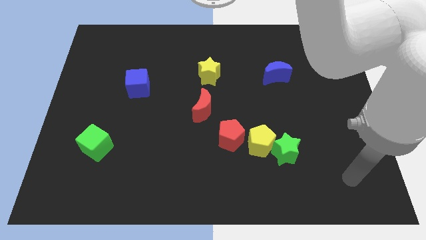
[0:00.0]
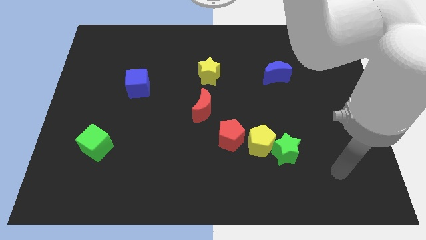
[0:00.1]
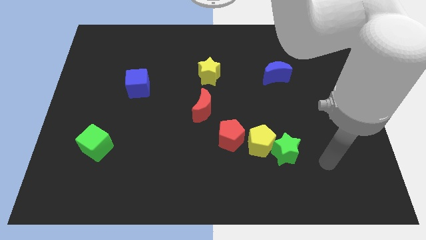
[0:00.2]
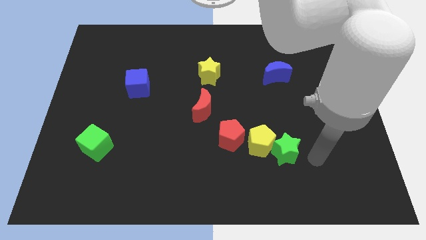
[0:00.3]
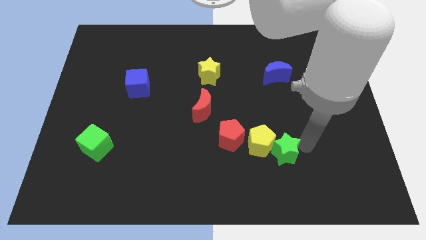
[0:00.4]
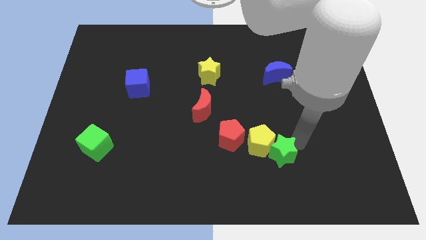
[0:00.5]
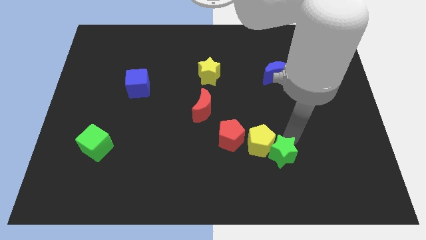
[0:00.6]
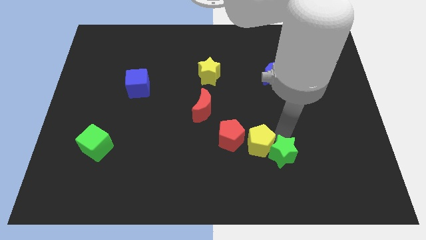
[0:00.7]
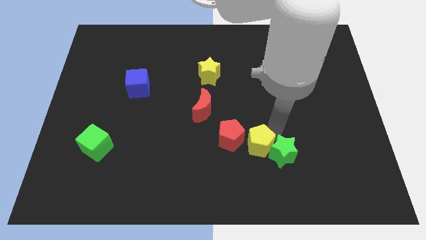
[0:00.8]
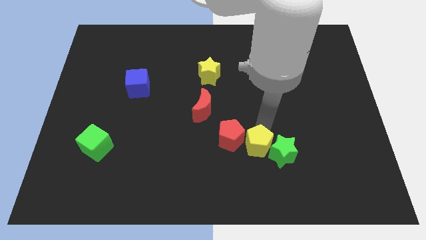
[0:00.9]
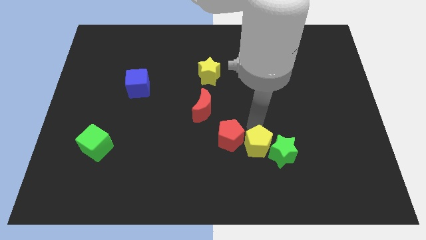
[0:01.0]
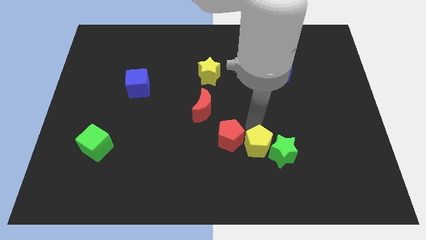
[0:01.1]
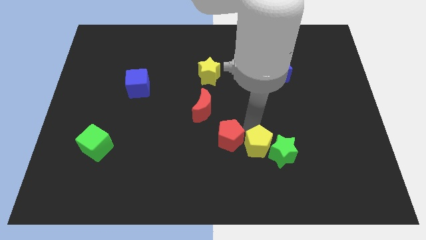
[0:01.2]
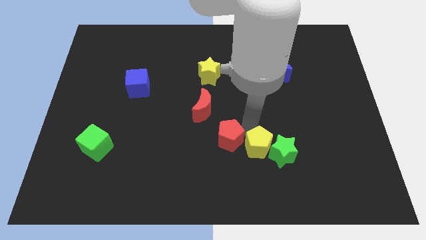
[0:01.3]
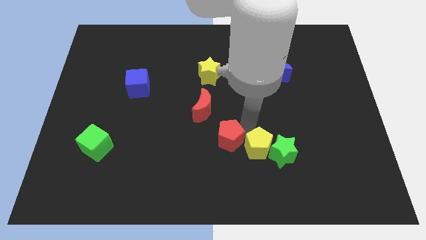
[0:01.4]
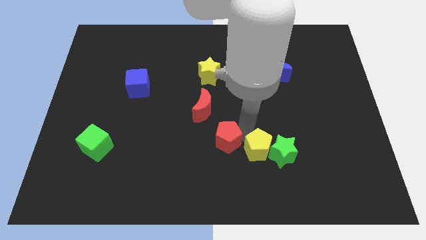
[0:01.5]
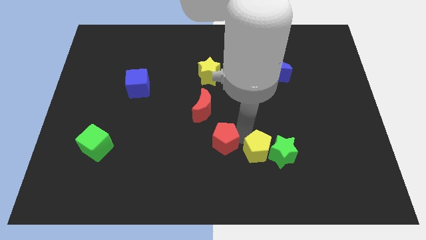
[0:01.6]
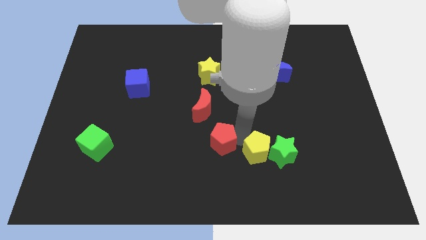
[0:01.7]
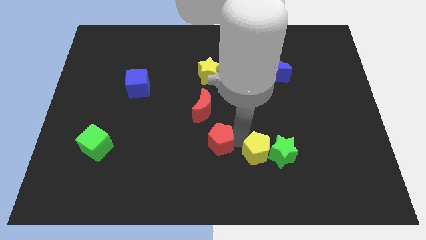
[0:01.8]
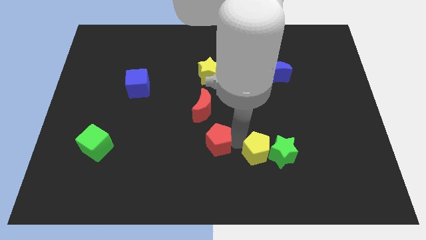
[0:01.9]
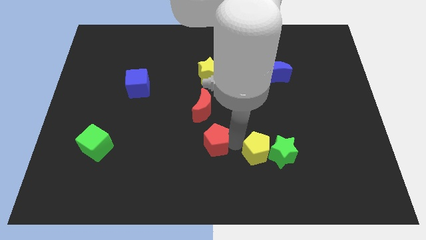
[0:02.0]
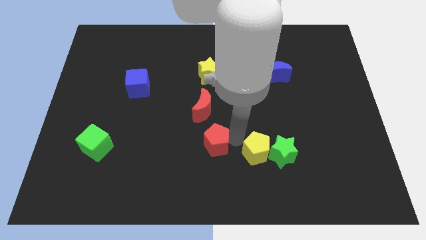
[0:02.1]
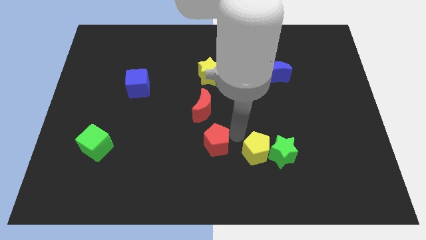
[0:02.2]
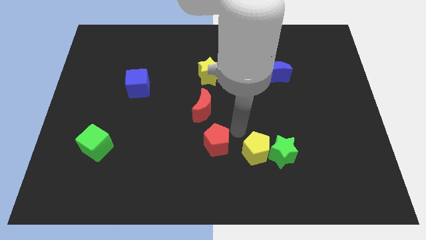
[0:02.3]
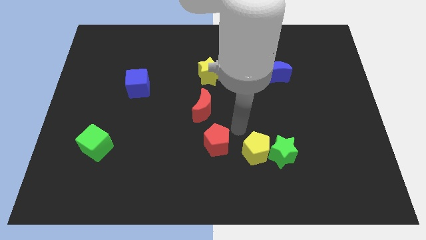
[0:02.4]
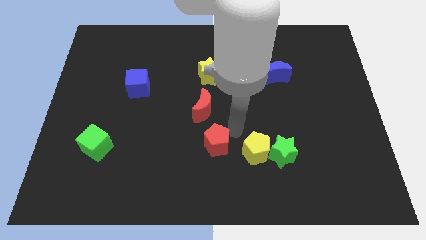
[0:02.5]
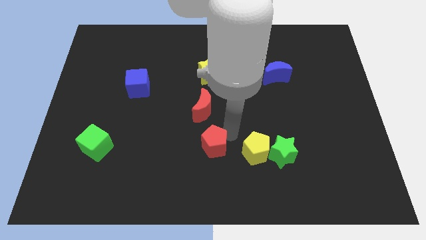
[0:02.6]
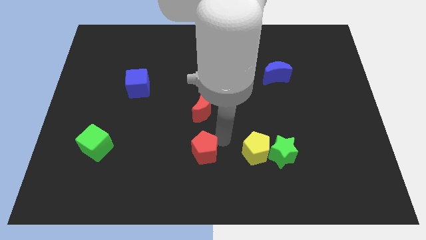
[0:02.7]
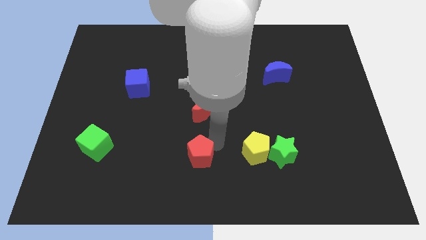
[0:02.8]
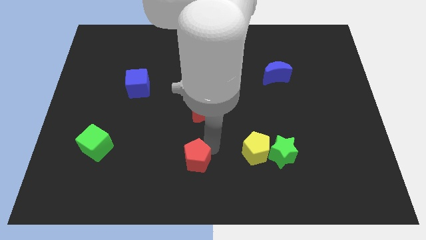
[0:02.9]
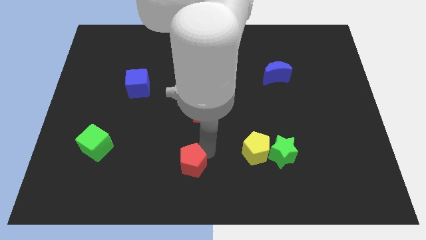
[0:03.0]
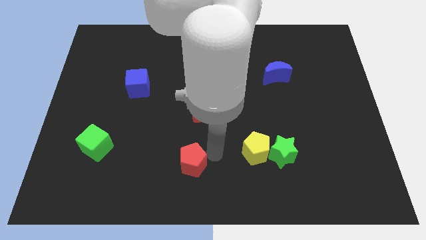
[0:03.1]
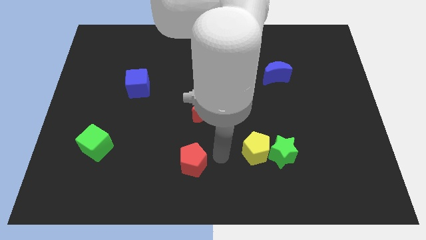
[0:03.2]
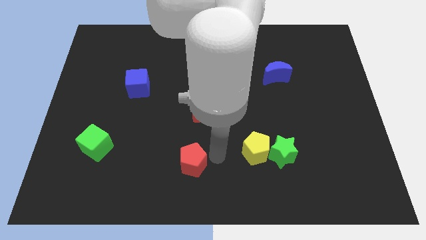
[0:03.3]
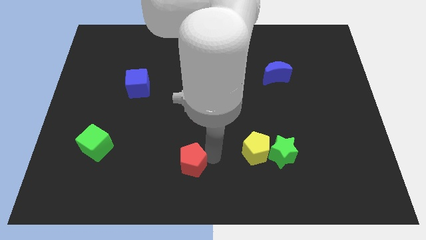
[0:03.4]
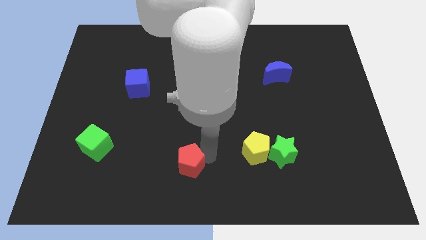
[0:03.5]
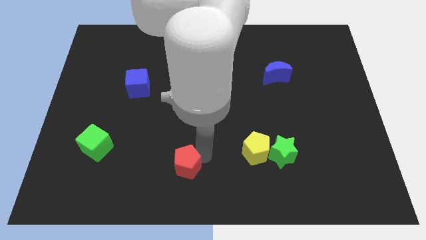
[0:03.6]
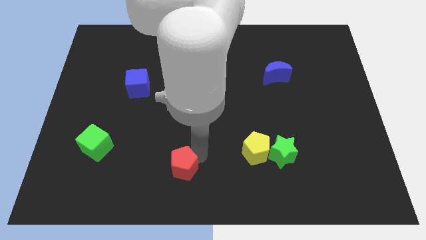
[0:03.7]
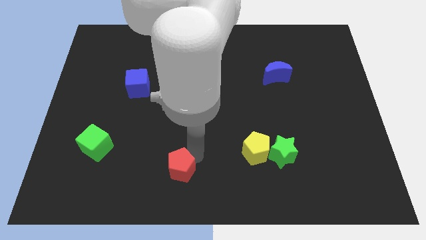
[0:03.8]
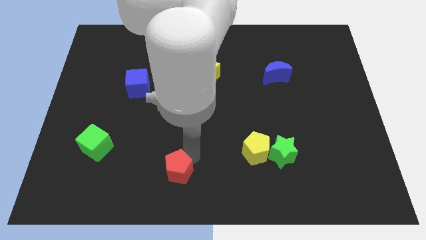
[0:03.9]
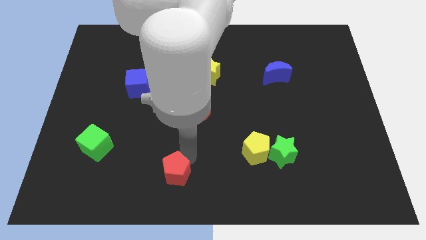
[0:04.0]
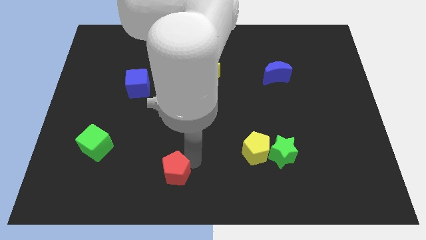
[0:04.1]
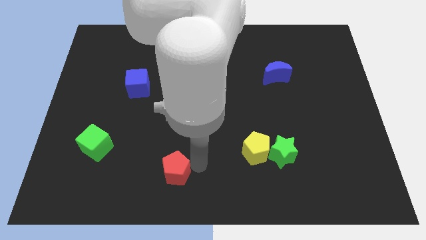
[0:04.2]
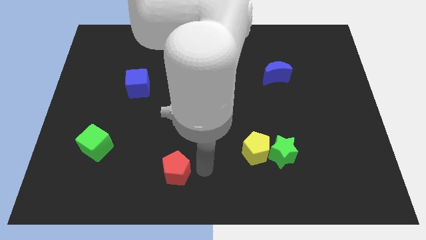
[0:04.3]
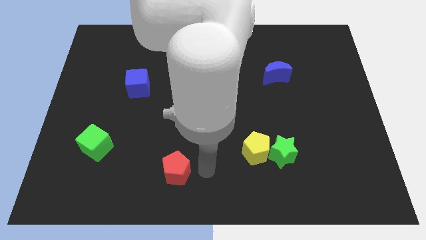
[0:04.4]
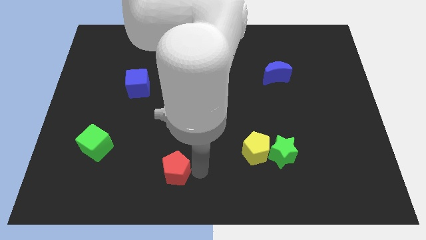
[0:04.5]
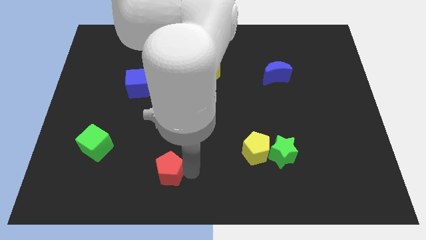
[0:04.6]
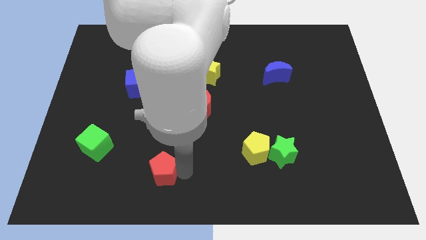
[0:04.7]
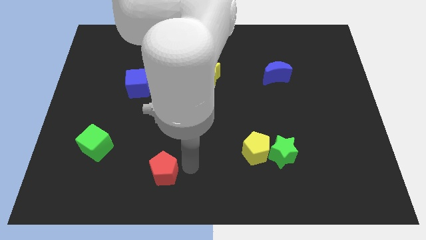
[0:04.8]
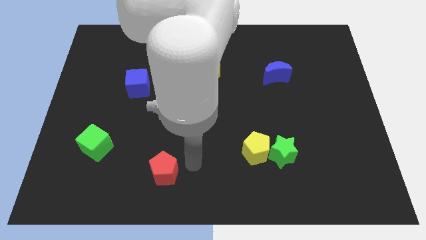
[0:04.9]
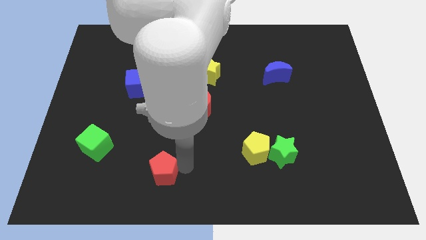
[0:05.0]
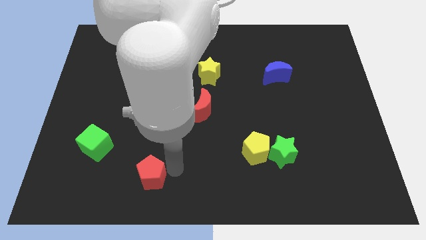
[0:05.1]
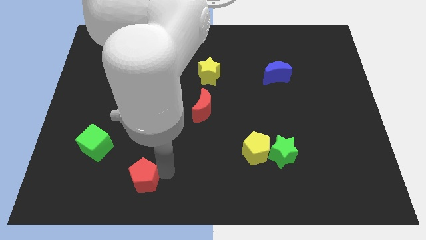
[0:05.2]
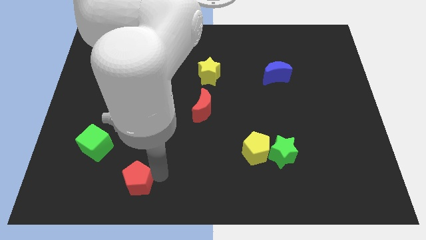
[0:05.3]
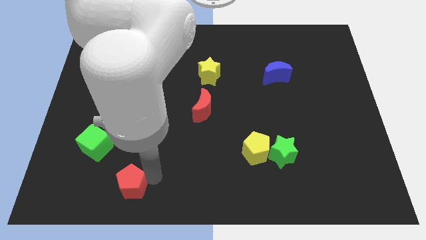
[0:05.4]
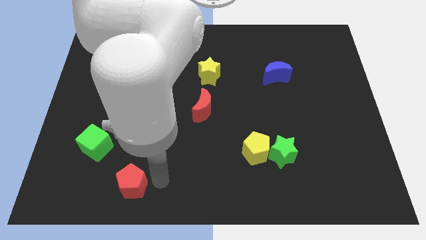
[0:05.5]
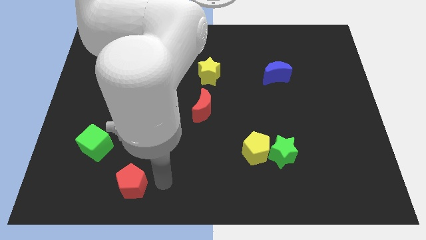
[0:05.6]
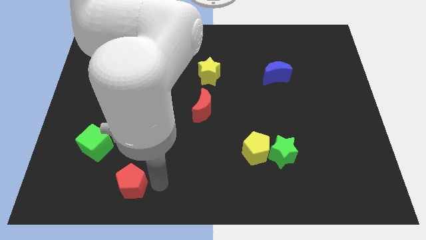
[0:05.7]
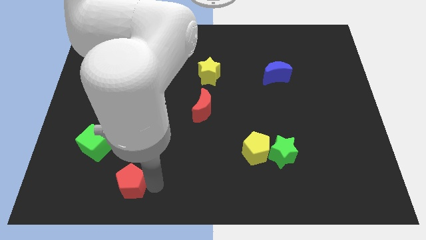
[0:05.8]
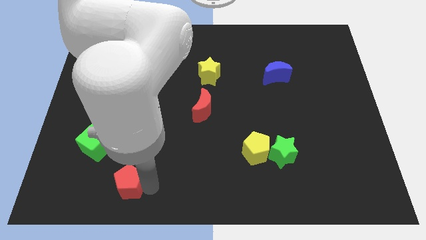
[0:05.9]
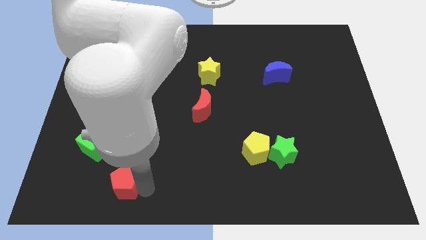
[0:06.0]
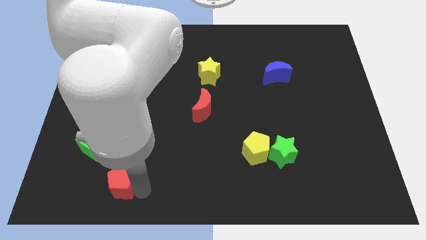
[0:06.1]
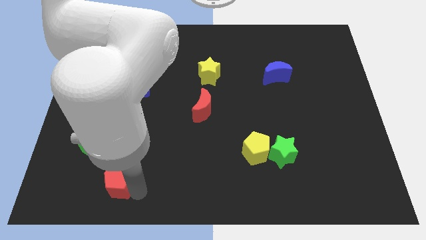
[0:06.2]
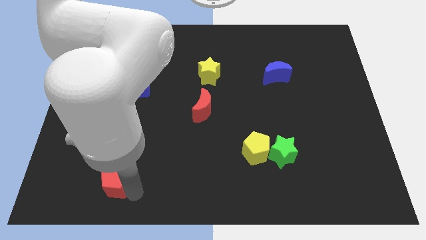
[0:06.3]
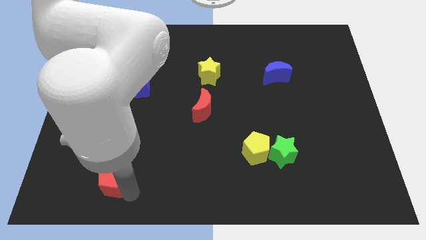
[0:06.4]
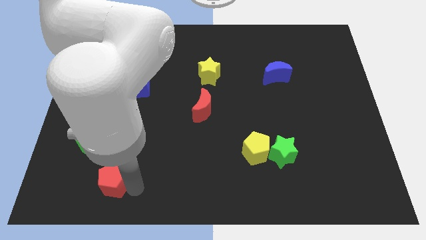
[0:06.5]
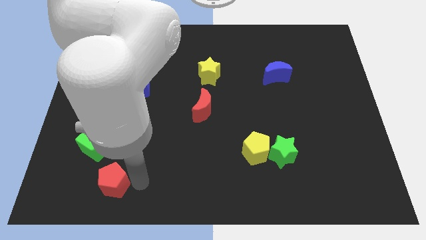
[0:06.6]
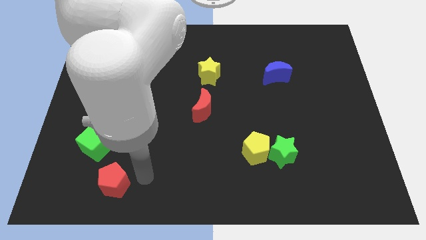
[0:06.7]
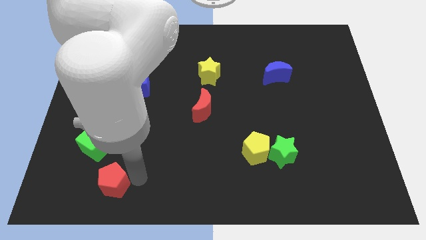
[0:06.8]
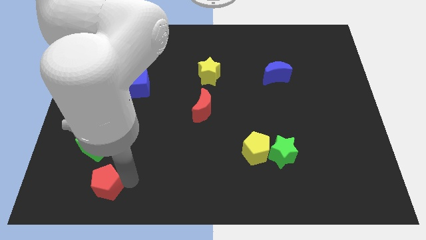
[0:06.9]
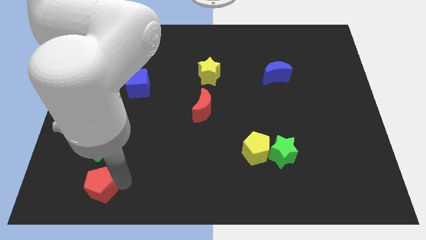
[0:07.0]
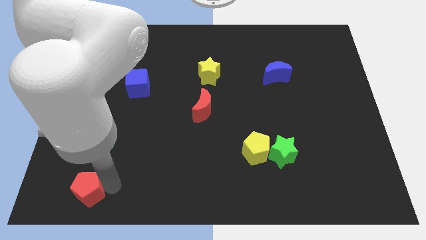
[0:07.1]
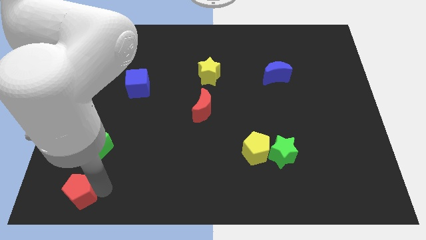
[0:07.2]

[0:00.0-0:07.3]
slide the red pentagon to the bottom left of the board
